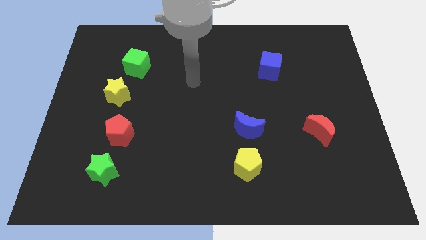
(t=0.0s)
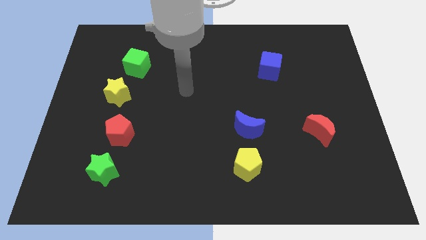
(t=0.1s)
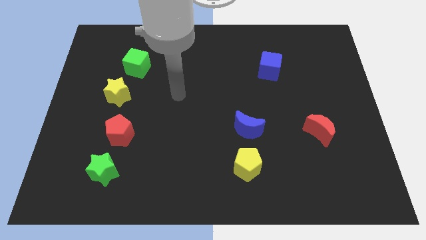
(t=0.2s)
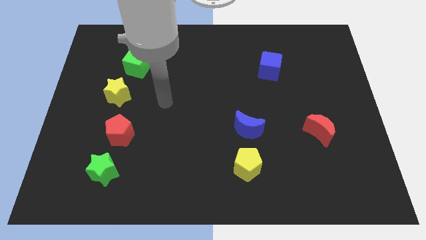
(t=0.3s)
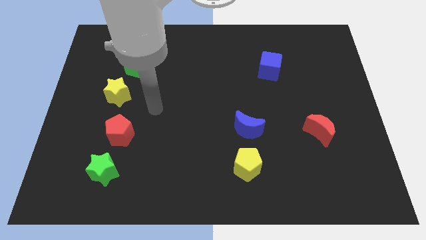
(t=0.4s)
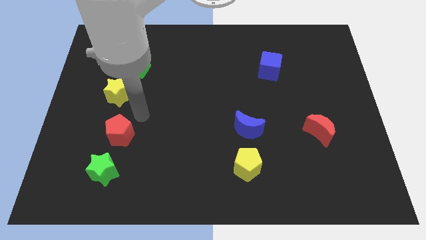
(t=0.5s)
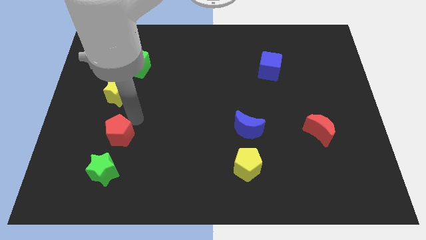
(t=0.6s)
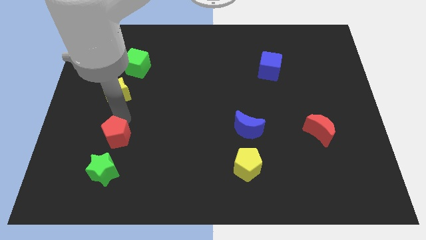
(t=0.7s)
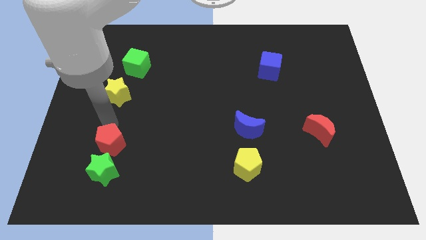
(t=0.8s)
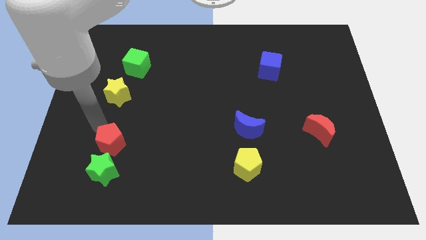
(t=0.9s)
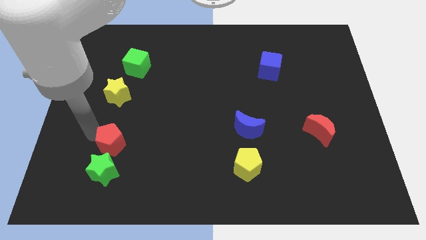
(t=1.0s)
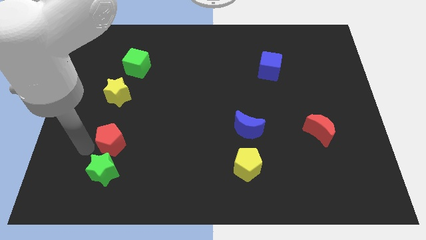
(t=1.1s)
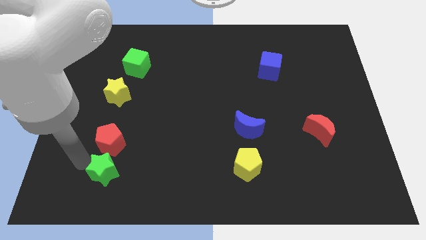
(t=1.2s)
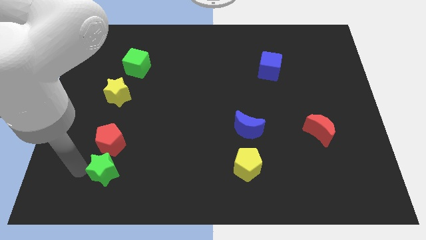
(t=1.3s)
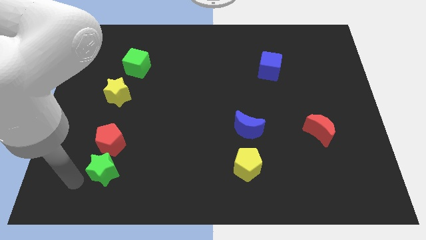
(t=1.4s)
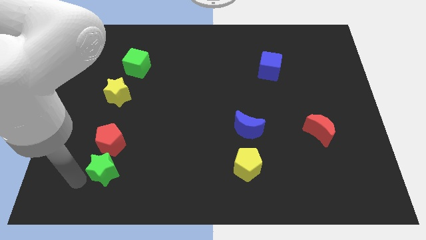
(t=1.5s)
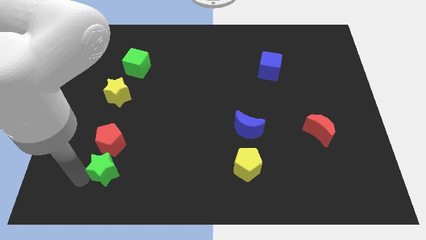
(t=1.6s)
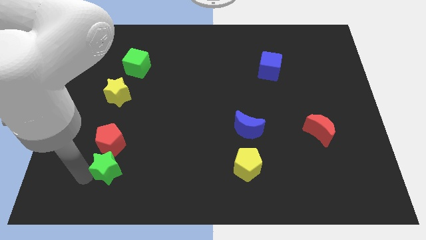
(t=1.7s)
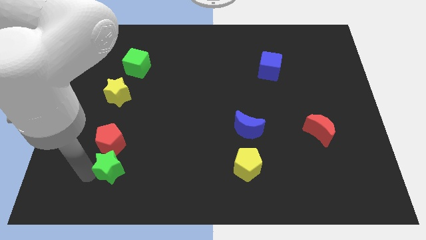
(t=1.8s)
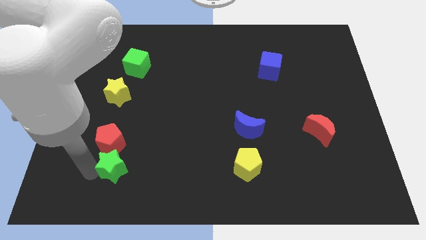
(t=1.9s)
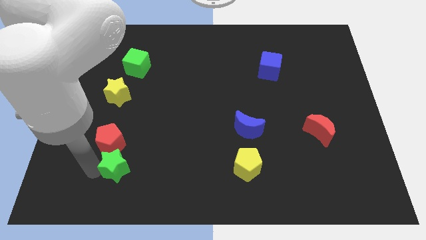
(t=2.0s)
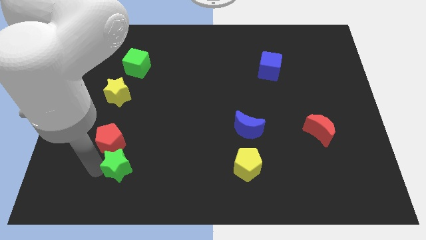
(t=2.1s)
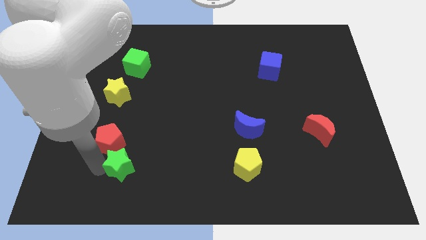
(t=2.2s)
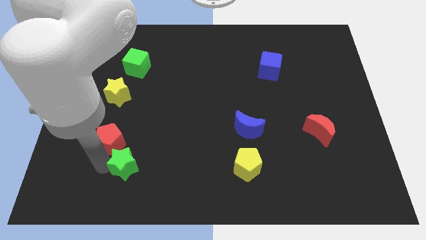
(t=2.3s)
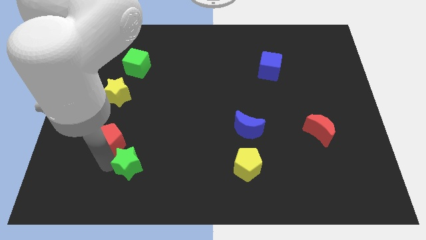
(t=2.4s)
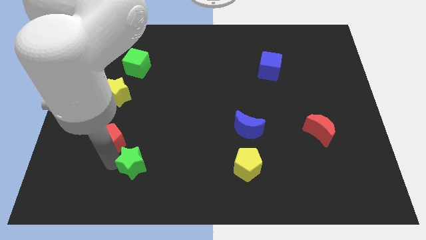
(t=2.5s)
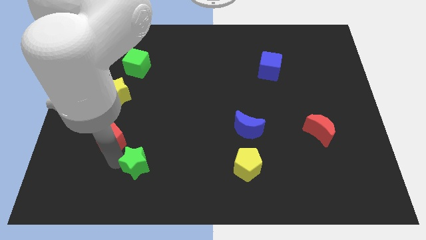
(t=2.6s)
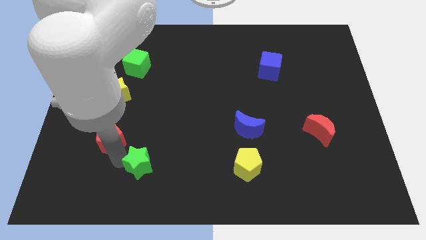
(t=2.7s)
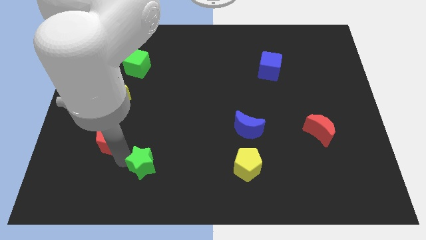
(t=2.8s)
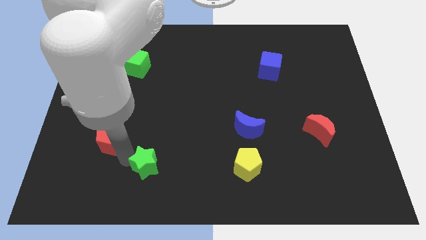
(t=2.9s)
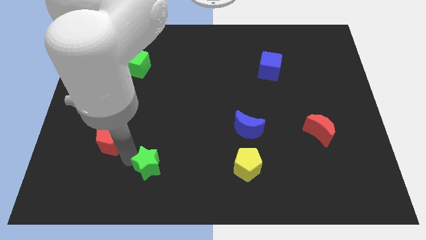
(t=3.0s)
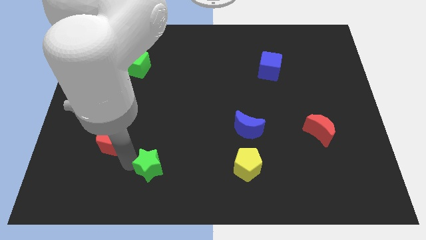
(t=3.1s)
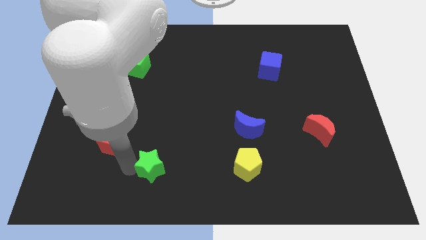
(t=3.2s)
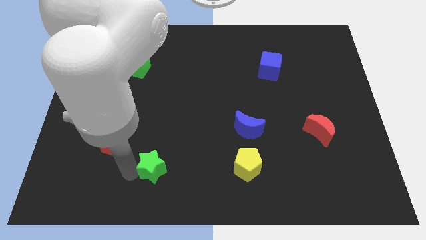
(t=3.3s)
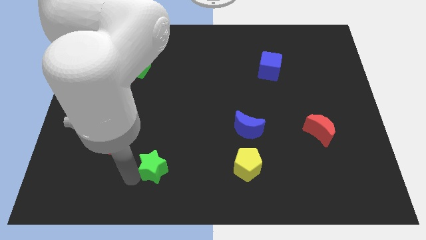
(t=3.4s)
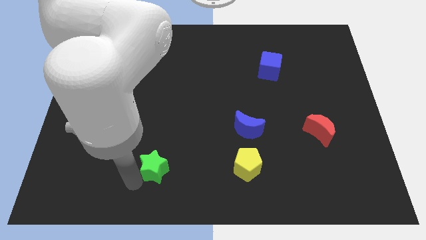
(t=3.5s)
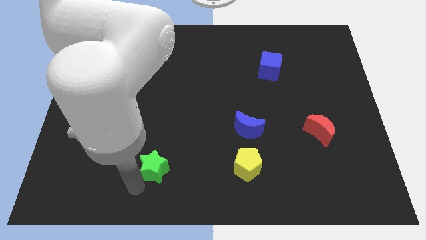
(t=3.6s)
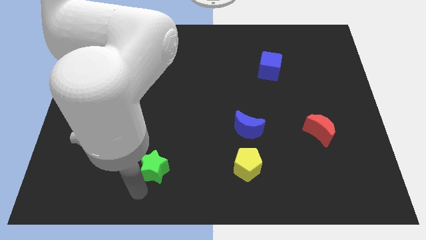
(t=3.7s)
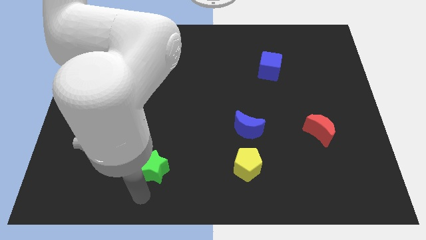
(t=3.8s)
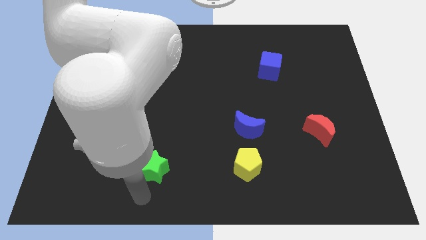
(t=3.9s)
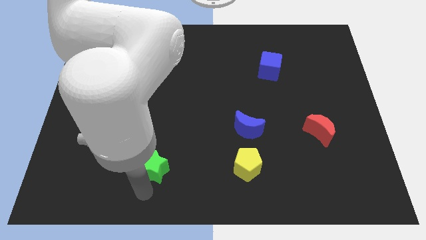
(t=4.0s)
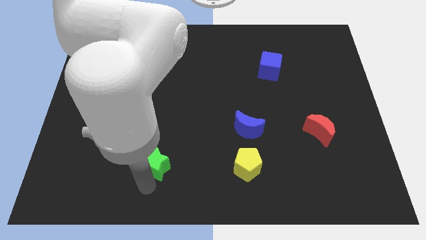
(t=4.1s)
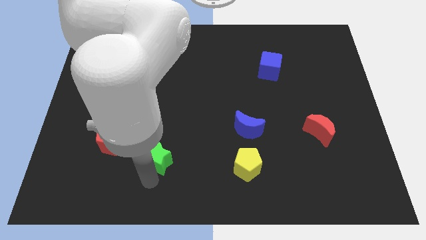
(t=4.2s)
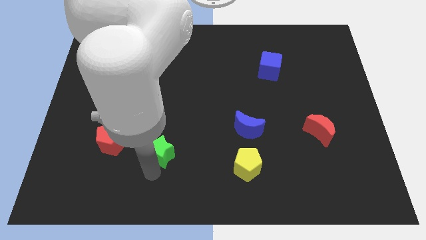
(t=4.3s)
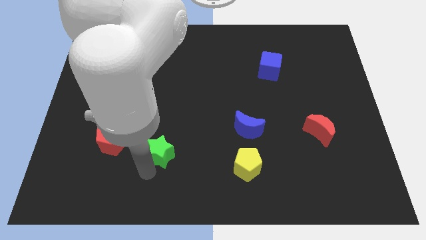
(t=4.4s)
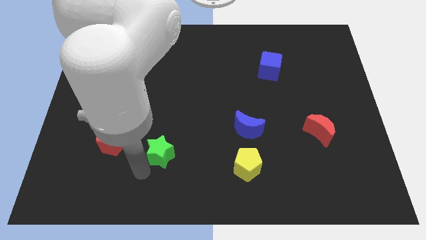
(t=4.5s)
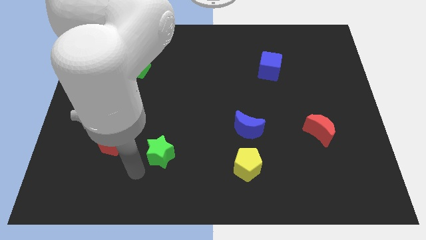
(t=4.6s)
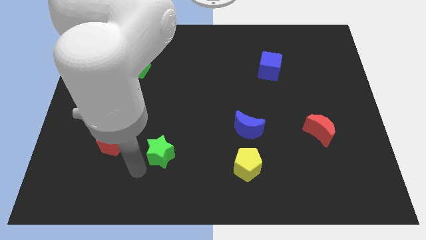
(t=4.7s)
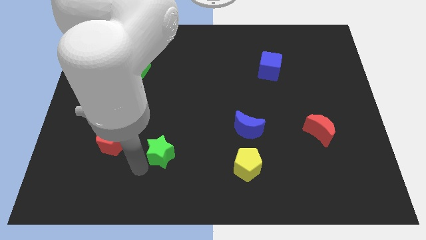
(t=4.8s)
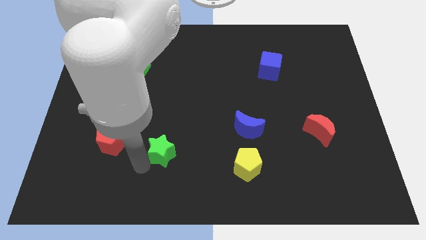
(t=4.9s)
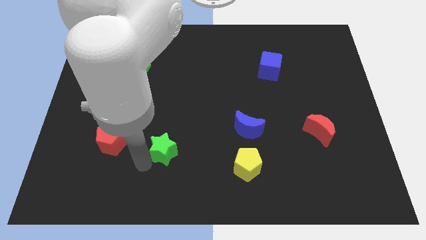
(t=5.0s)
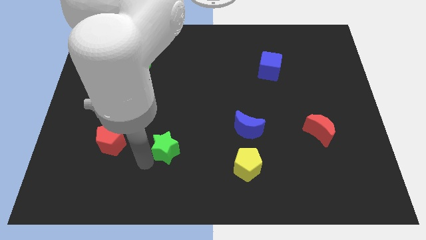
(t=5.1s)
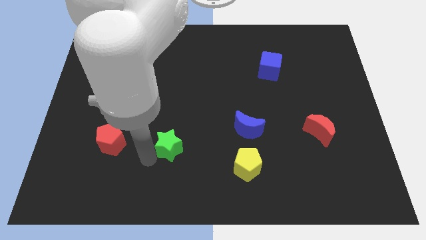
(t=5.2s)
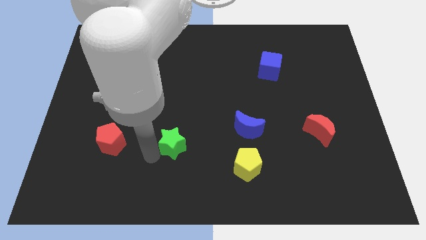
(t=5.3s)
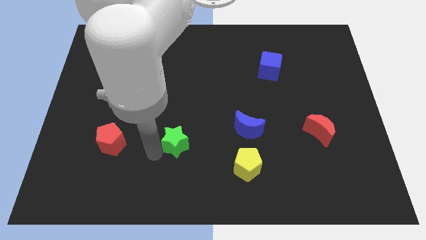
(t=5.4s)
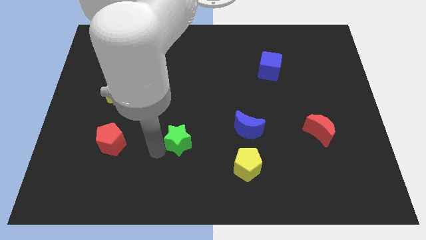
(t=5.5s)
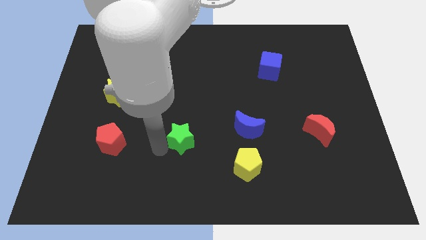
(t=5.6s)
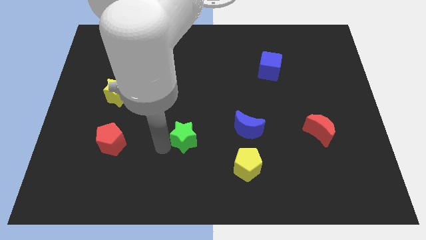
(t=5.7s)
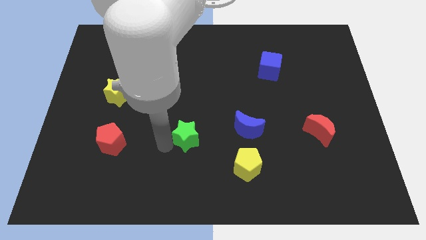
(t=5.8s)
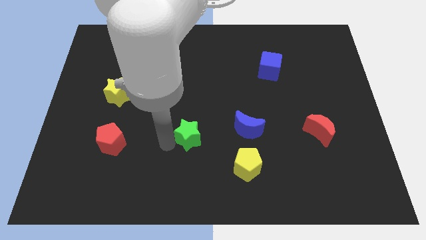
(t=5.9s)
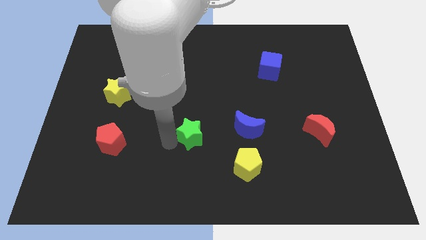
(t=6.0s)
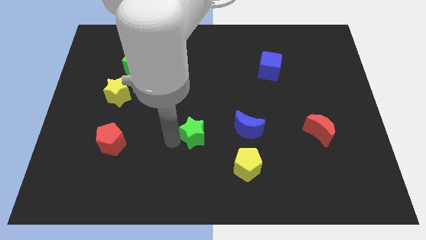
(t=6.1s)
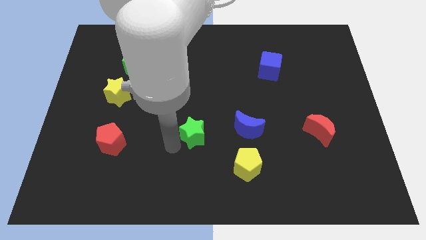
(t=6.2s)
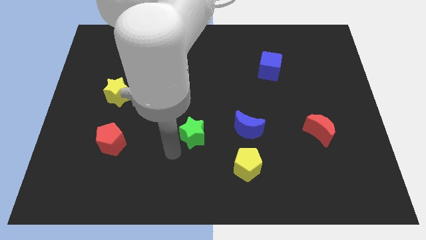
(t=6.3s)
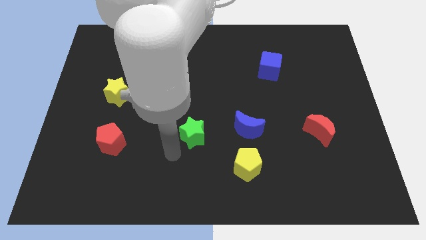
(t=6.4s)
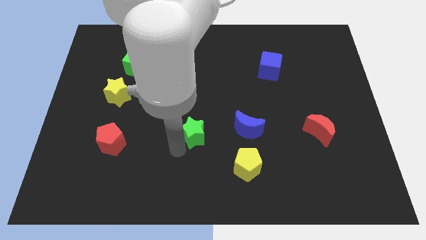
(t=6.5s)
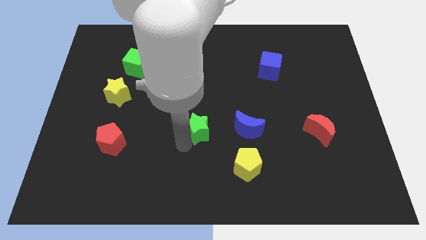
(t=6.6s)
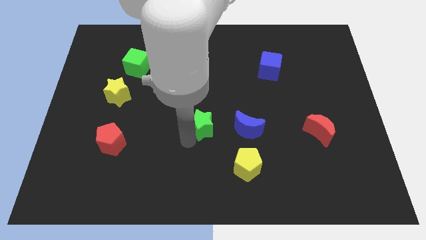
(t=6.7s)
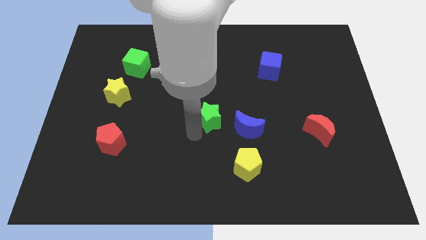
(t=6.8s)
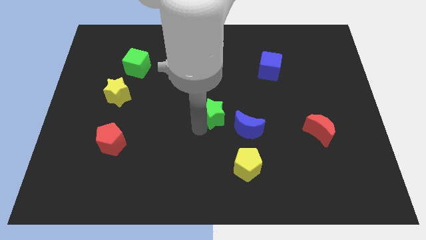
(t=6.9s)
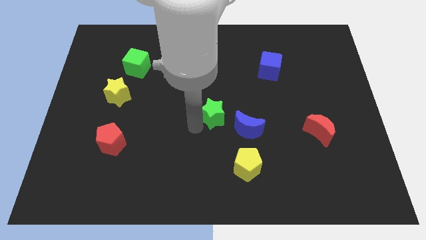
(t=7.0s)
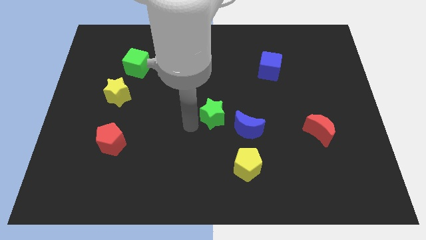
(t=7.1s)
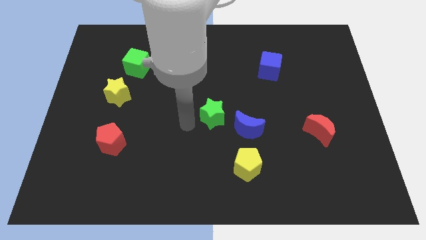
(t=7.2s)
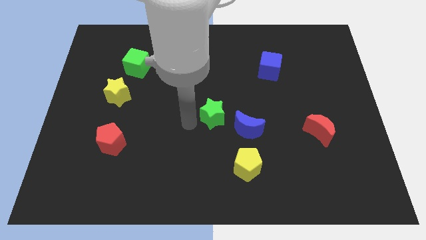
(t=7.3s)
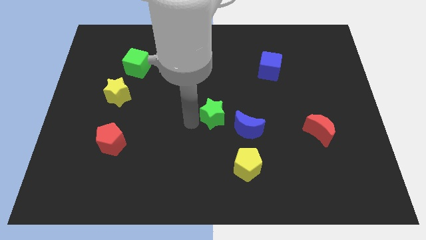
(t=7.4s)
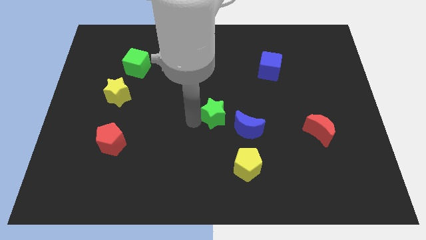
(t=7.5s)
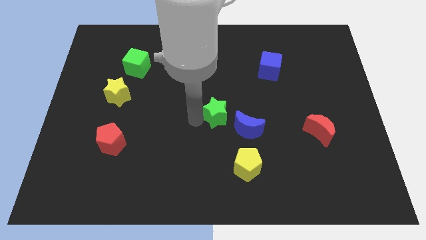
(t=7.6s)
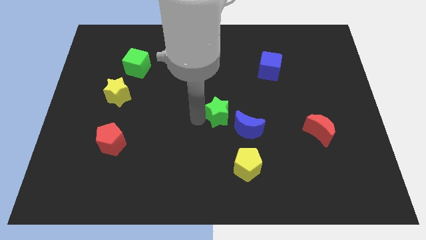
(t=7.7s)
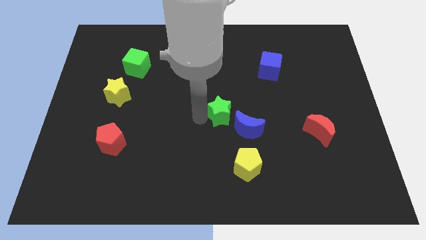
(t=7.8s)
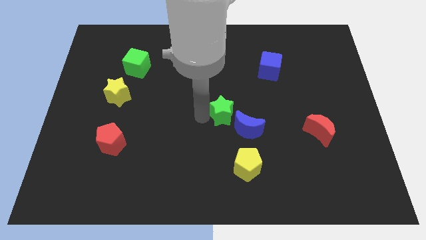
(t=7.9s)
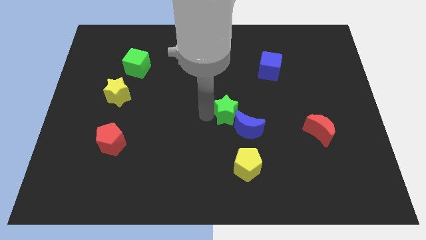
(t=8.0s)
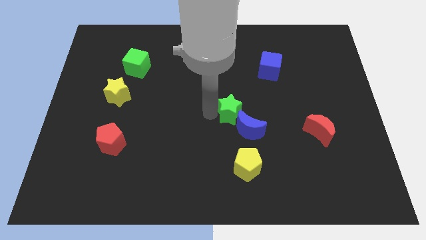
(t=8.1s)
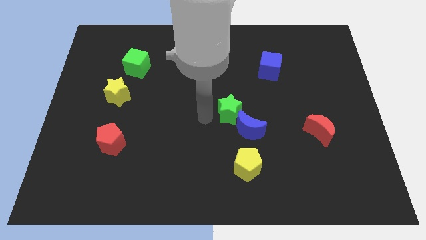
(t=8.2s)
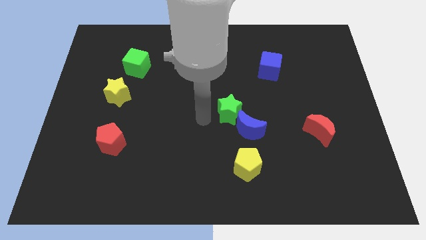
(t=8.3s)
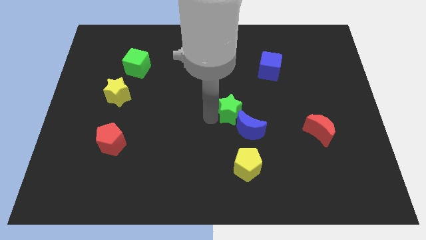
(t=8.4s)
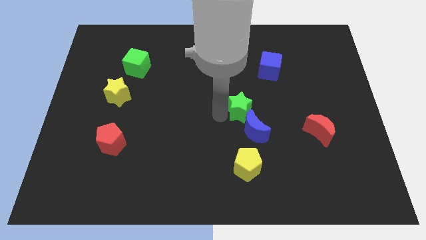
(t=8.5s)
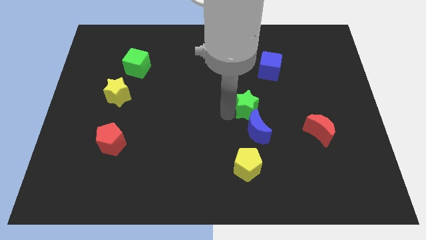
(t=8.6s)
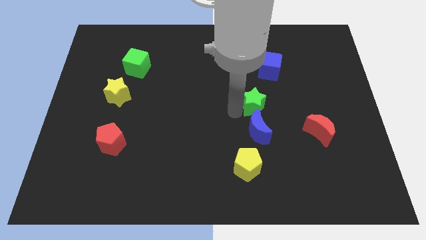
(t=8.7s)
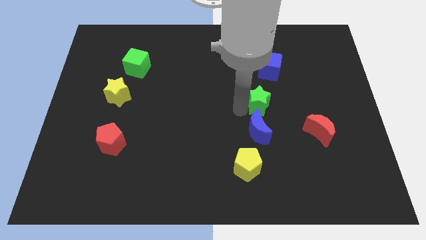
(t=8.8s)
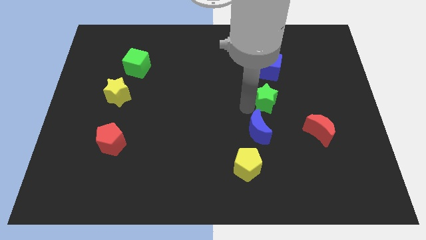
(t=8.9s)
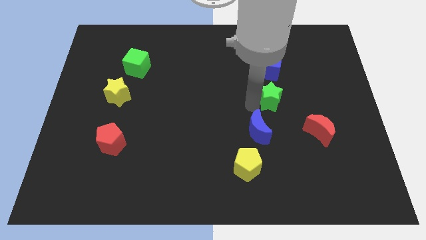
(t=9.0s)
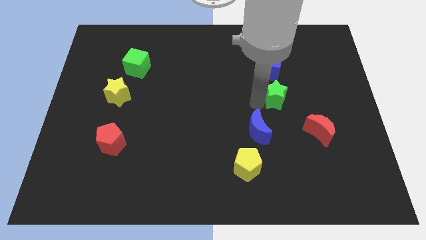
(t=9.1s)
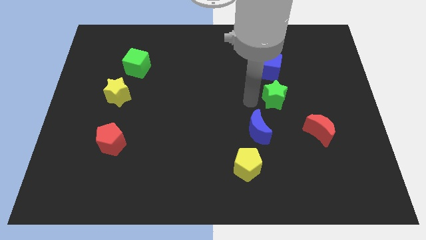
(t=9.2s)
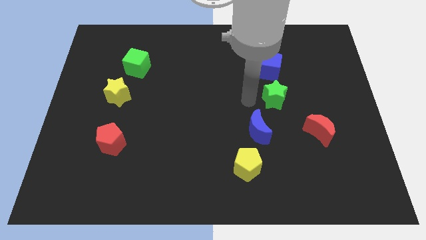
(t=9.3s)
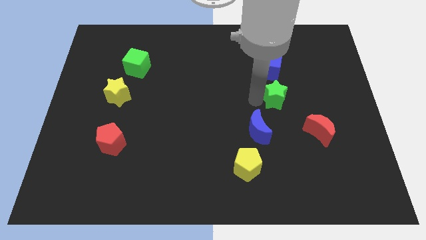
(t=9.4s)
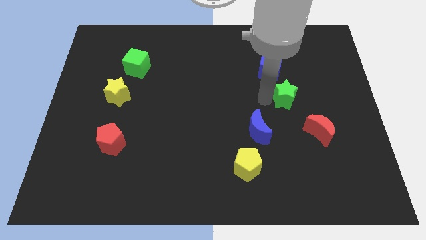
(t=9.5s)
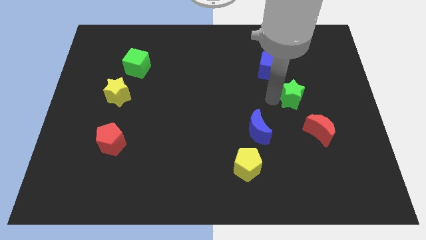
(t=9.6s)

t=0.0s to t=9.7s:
slide the green star to the top side of the red moon
